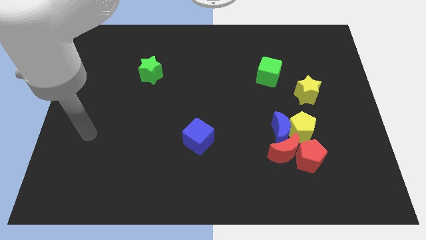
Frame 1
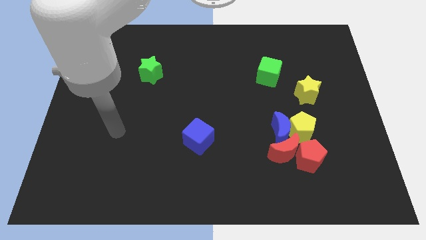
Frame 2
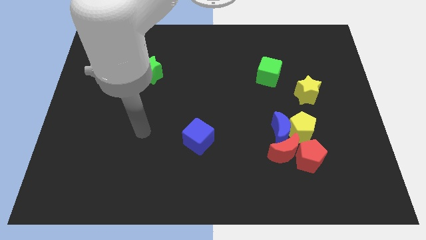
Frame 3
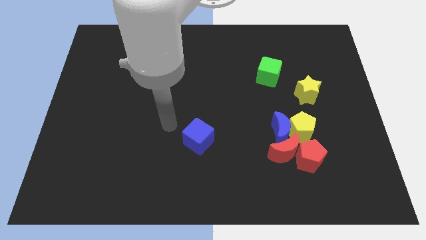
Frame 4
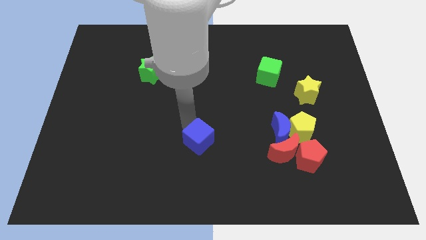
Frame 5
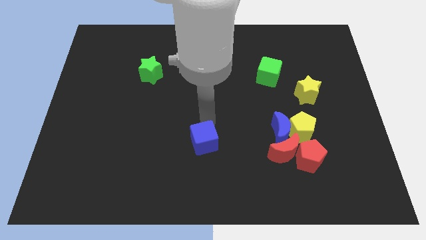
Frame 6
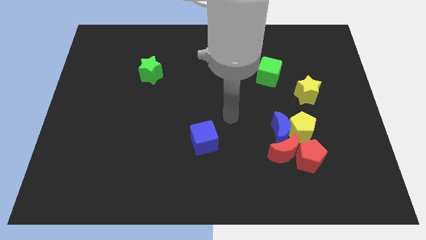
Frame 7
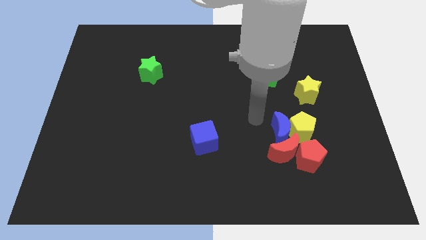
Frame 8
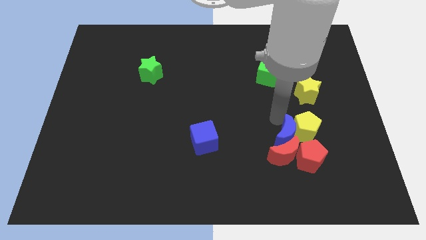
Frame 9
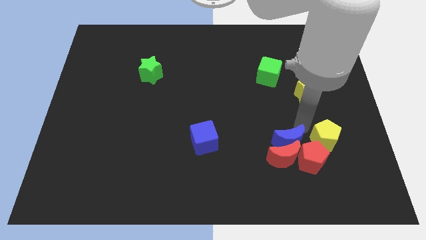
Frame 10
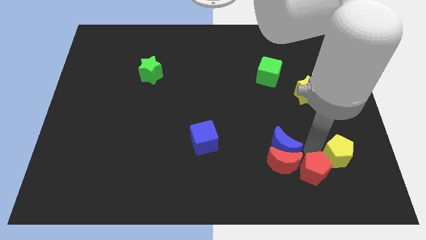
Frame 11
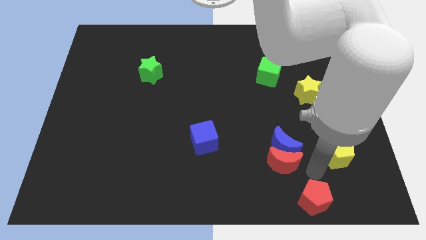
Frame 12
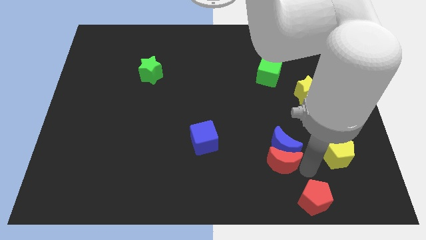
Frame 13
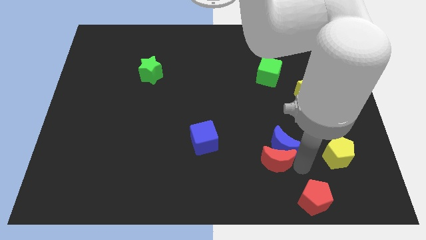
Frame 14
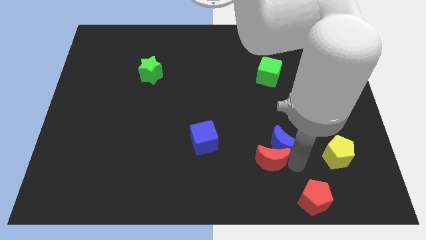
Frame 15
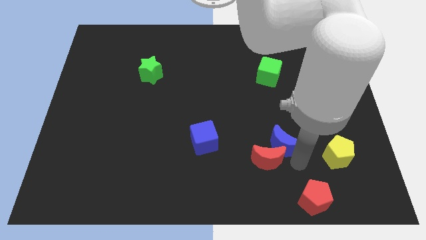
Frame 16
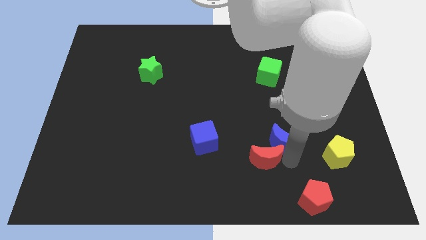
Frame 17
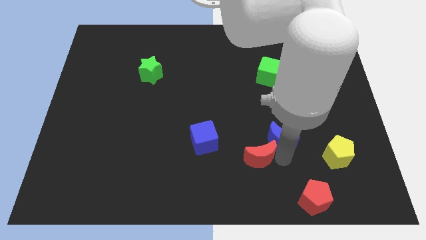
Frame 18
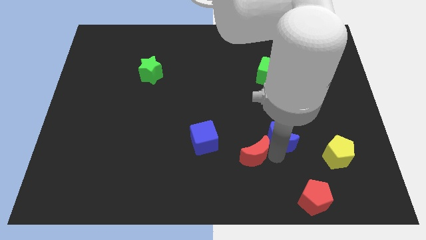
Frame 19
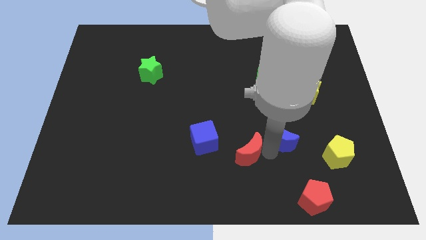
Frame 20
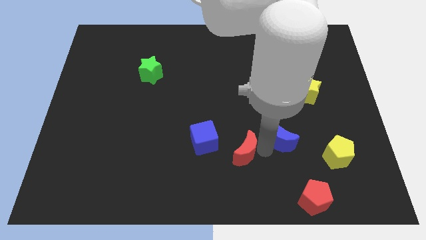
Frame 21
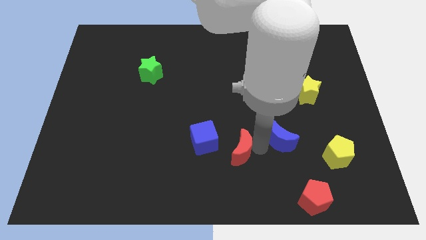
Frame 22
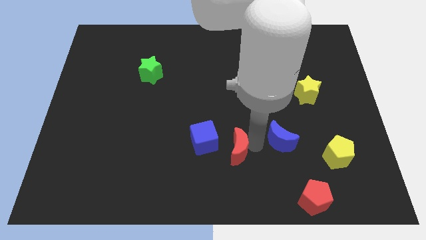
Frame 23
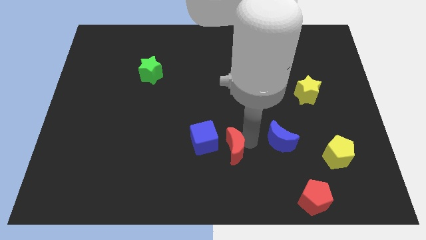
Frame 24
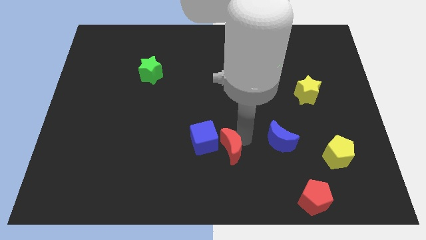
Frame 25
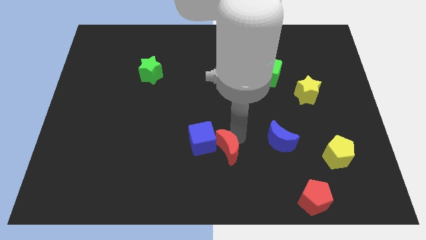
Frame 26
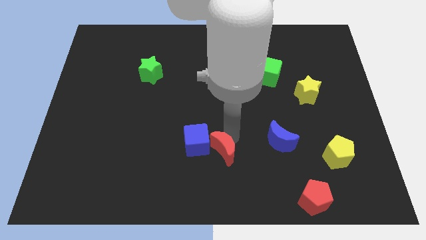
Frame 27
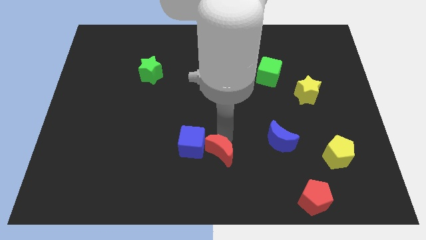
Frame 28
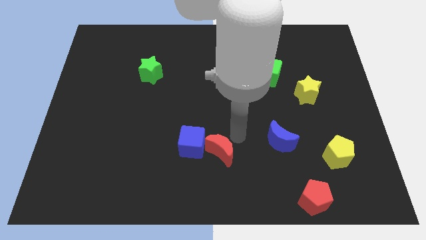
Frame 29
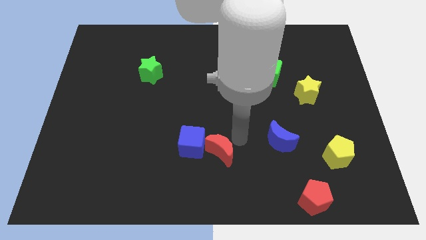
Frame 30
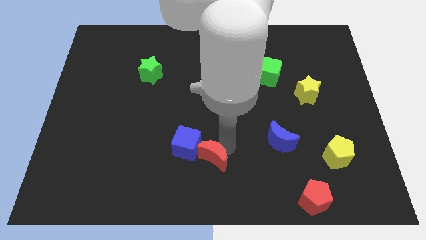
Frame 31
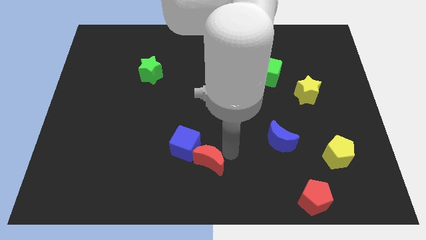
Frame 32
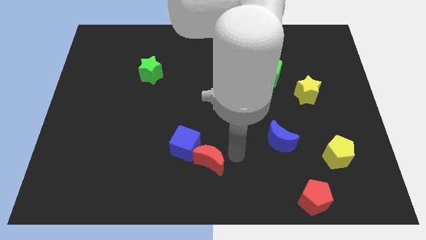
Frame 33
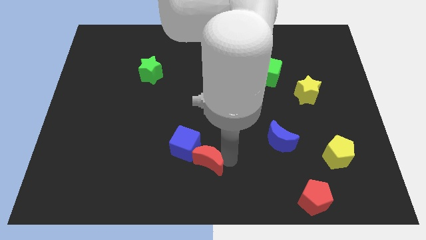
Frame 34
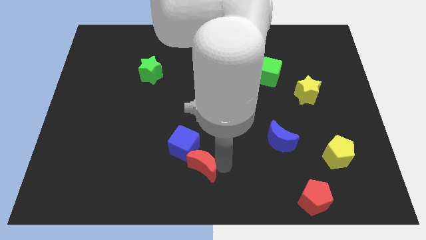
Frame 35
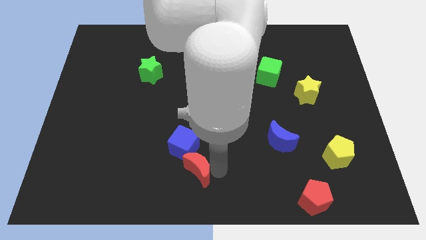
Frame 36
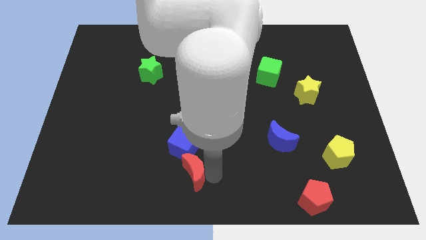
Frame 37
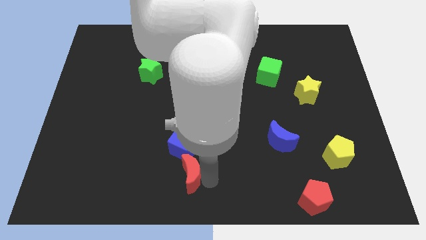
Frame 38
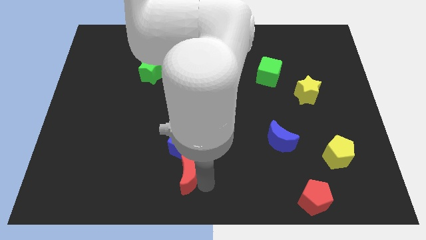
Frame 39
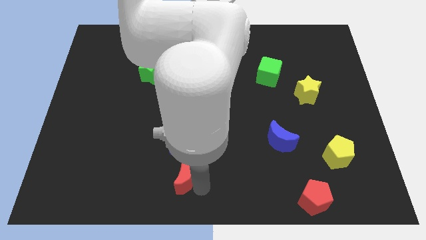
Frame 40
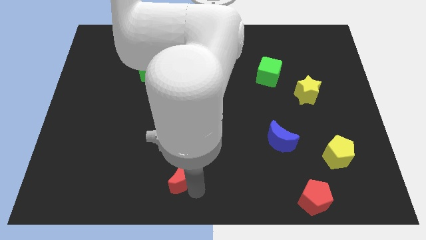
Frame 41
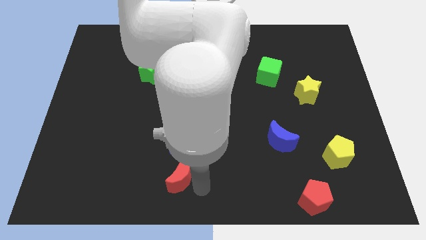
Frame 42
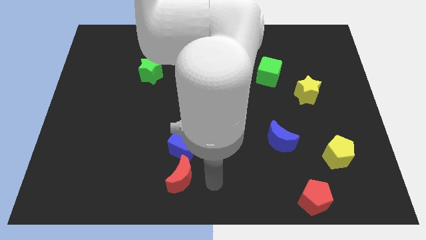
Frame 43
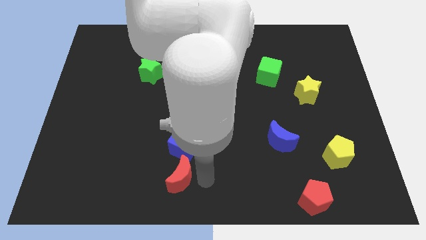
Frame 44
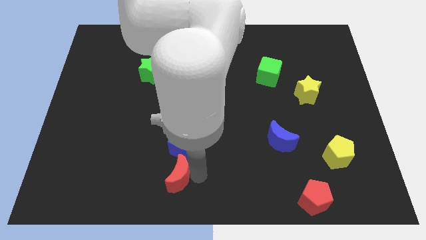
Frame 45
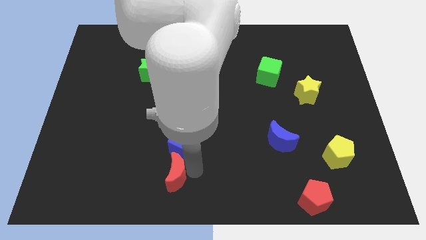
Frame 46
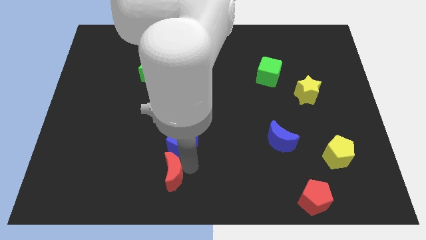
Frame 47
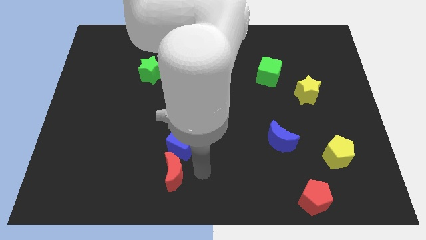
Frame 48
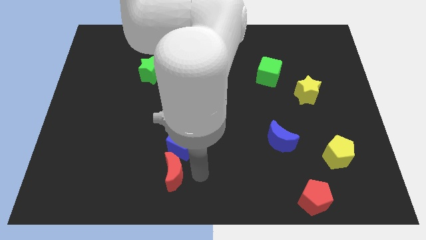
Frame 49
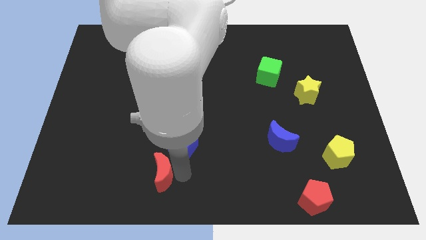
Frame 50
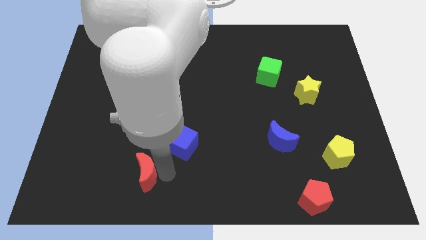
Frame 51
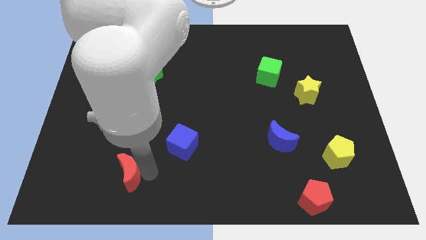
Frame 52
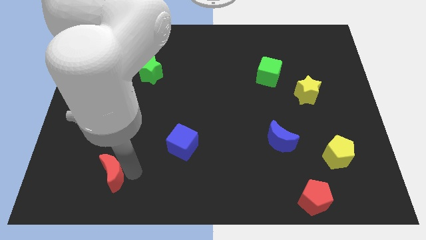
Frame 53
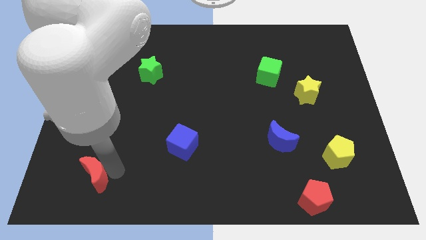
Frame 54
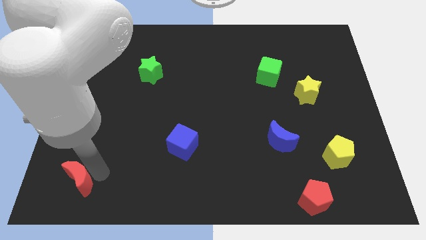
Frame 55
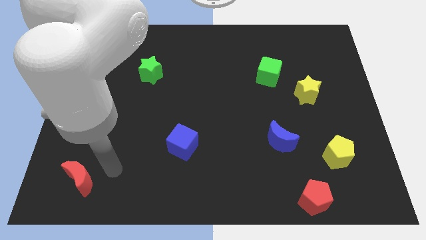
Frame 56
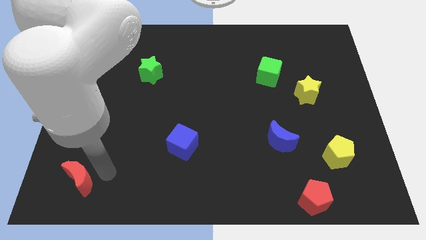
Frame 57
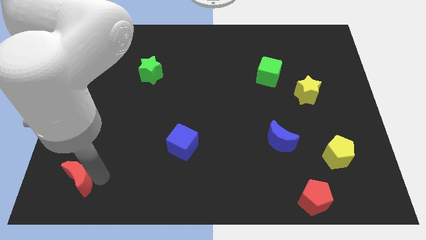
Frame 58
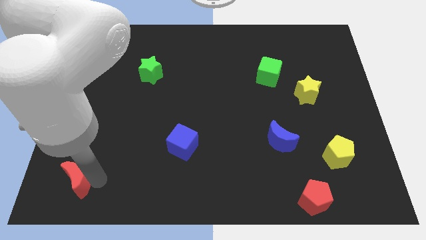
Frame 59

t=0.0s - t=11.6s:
put the red moon to the lower left corner

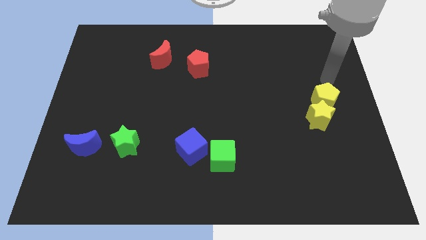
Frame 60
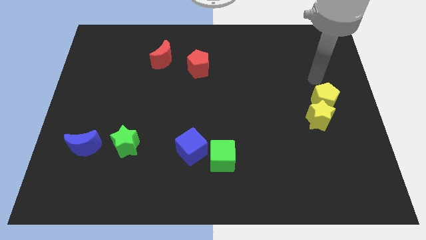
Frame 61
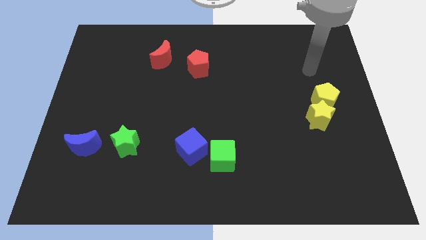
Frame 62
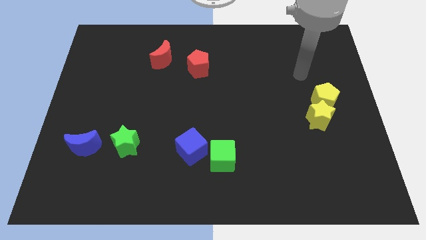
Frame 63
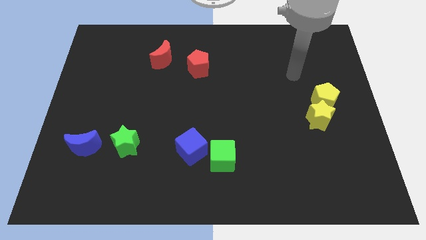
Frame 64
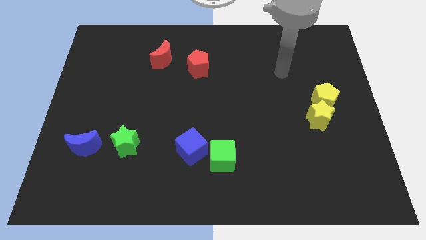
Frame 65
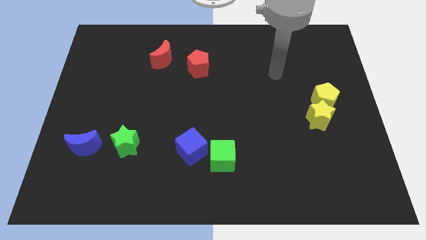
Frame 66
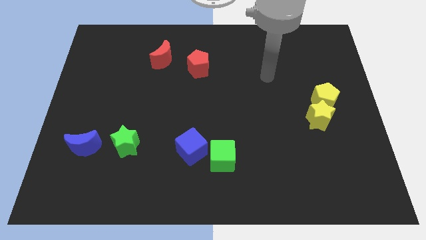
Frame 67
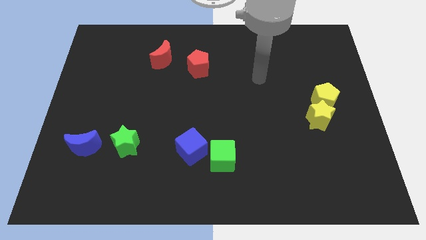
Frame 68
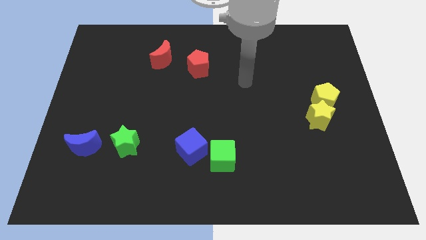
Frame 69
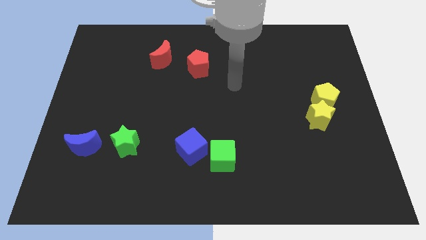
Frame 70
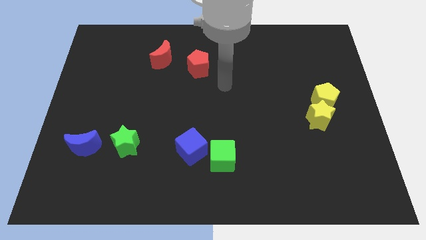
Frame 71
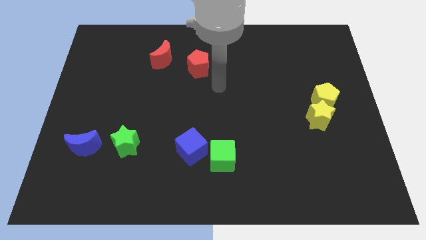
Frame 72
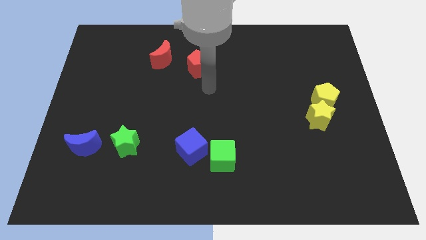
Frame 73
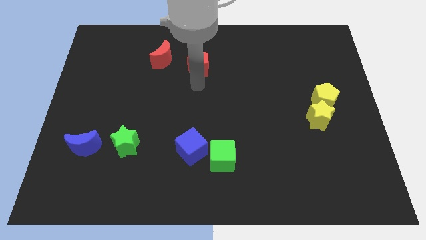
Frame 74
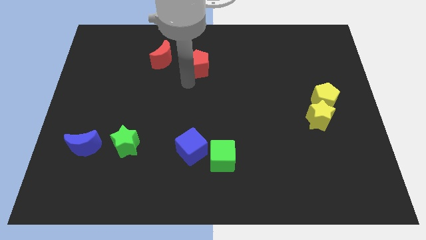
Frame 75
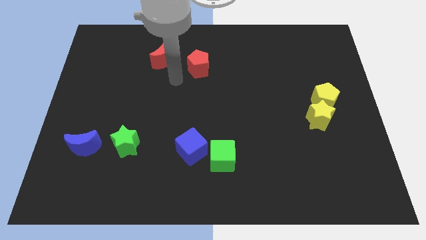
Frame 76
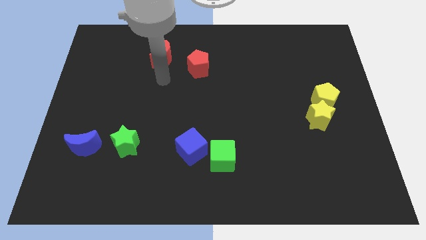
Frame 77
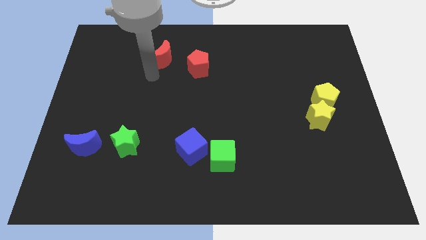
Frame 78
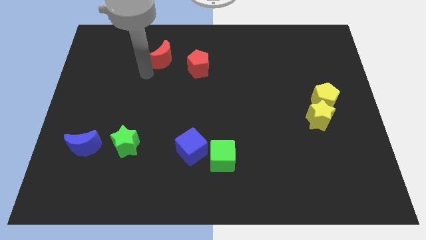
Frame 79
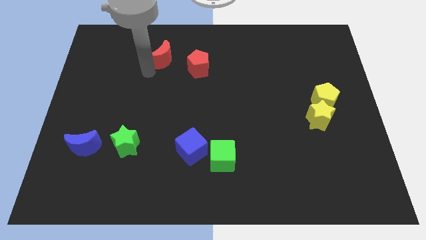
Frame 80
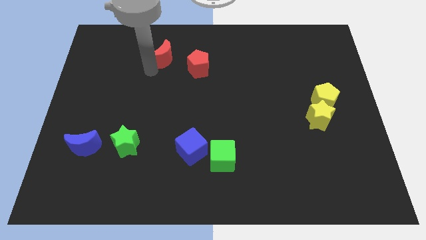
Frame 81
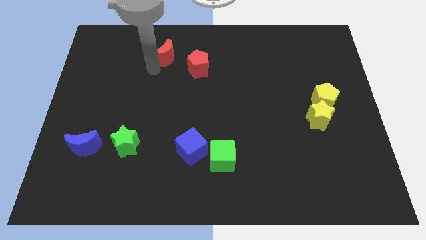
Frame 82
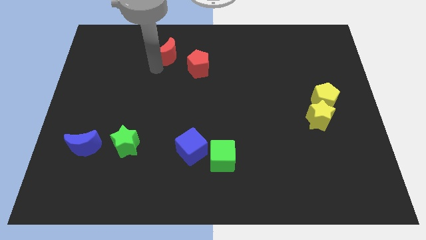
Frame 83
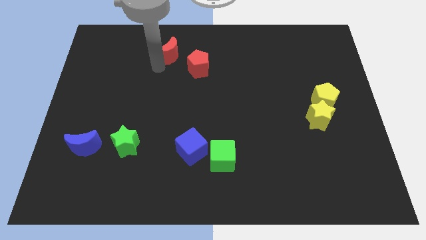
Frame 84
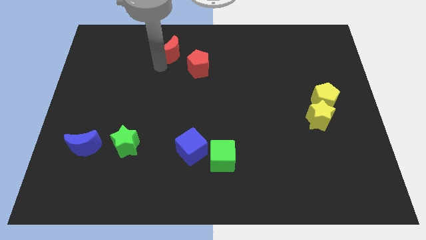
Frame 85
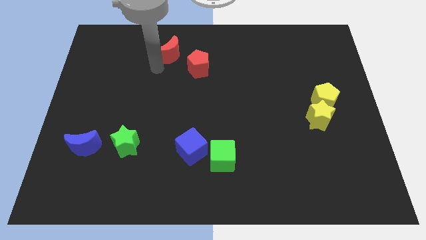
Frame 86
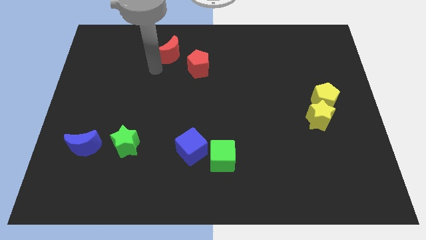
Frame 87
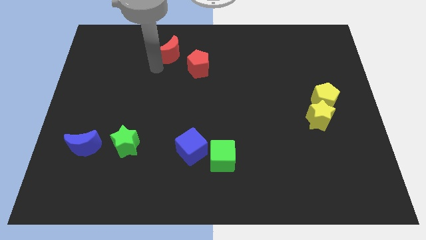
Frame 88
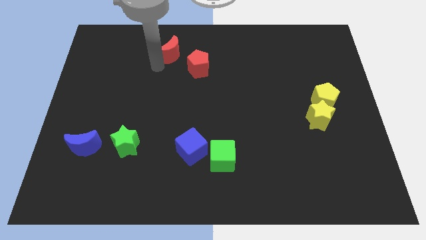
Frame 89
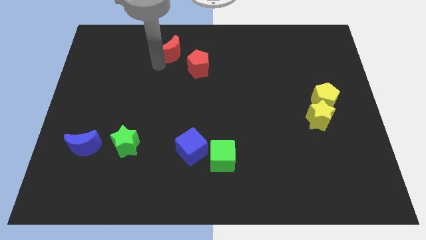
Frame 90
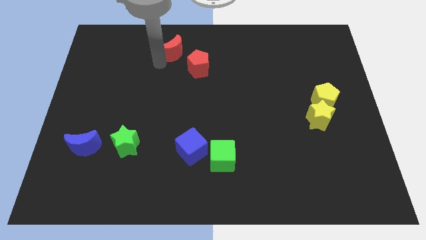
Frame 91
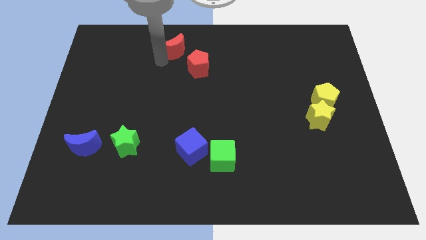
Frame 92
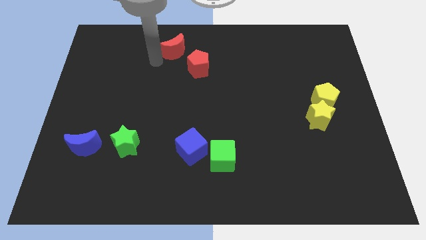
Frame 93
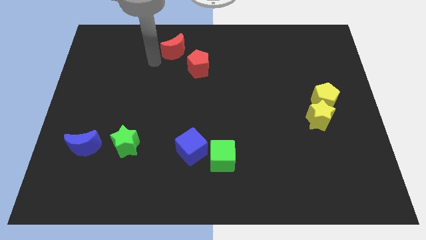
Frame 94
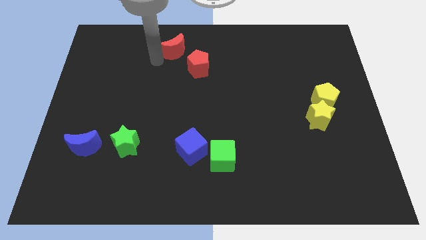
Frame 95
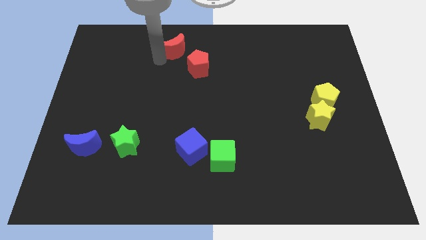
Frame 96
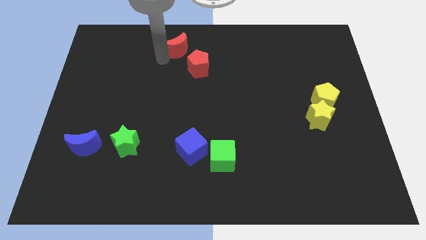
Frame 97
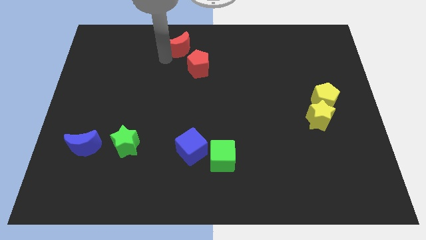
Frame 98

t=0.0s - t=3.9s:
move the red moon to the top side
